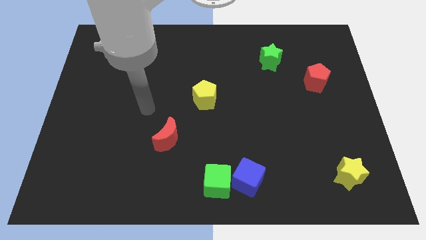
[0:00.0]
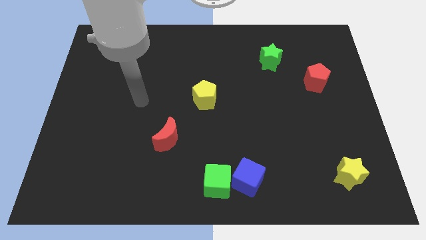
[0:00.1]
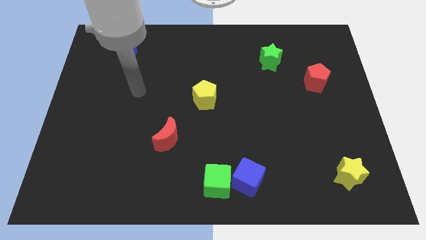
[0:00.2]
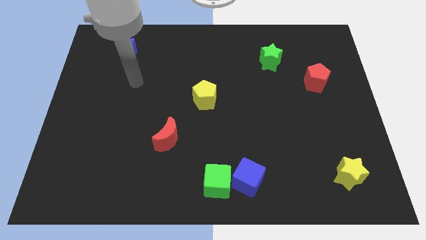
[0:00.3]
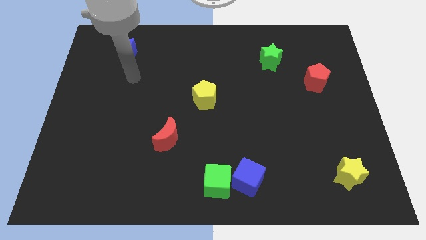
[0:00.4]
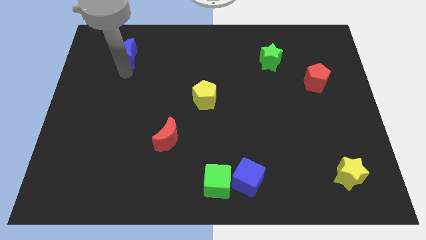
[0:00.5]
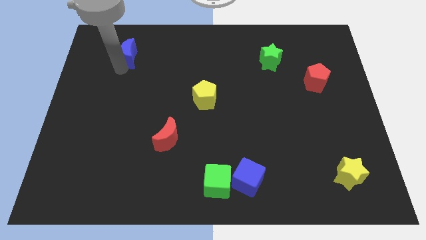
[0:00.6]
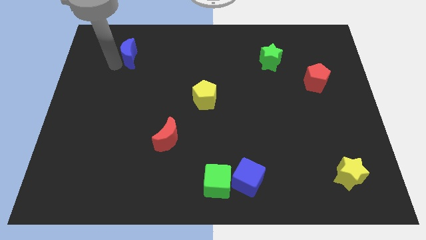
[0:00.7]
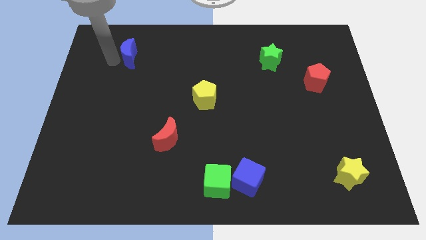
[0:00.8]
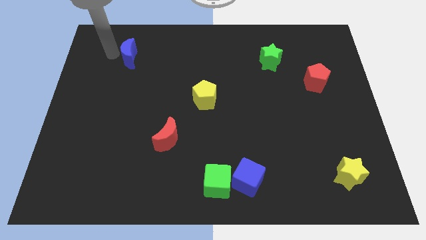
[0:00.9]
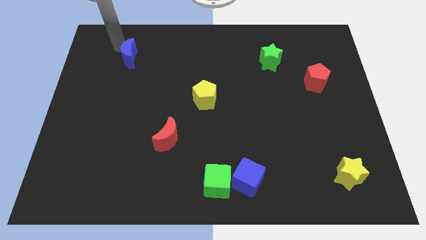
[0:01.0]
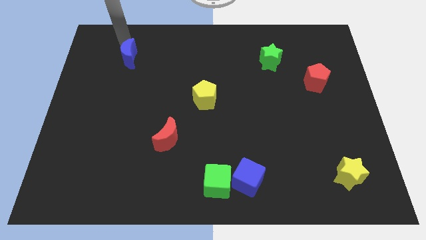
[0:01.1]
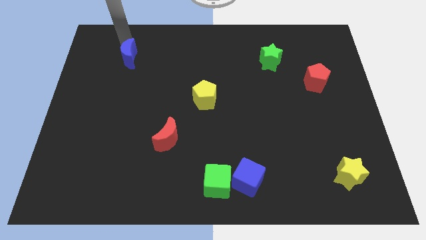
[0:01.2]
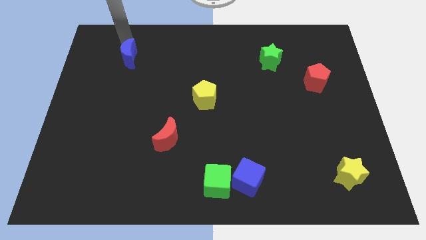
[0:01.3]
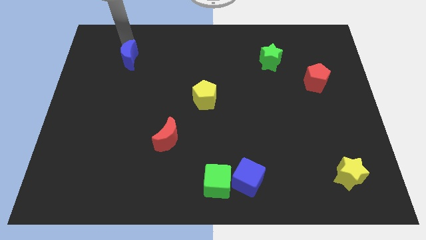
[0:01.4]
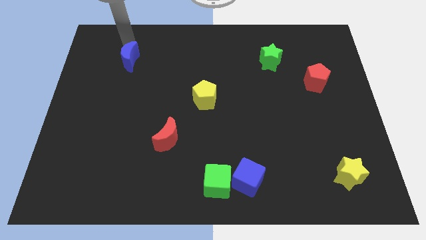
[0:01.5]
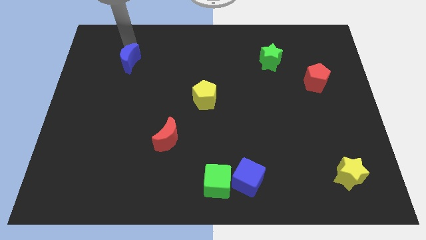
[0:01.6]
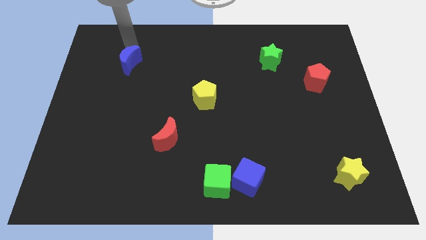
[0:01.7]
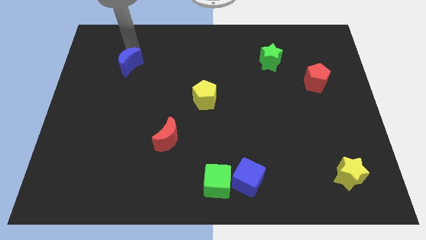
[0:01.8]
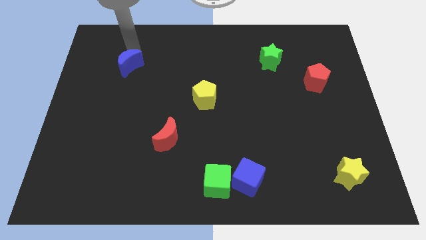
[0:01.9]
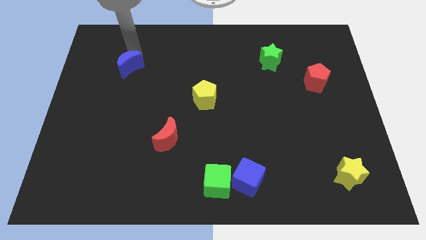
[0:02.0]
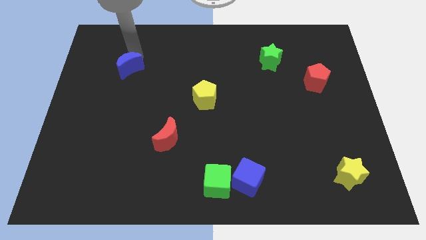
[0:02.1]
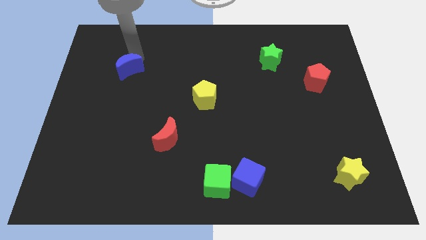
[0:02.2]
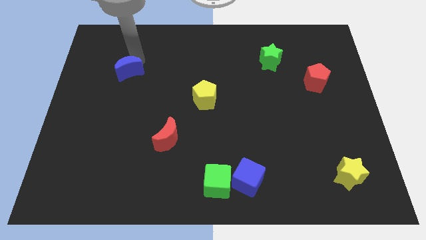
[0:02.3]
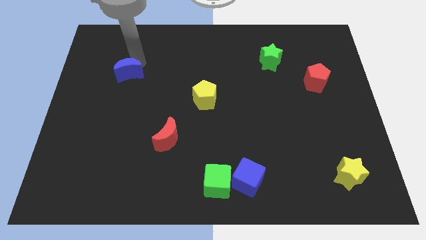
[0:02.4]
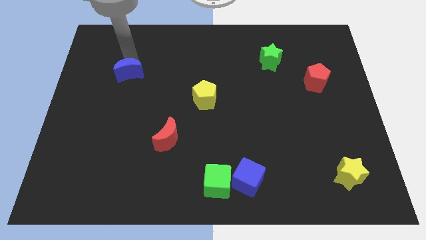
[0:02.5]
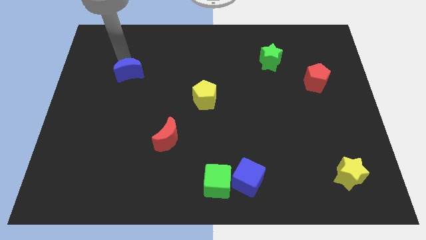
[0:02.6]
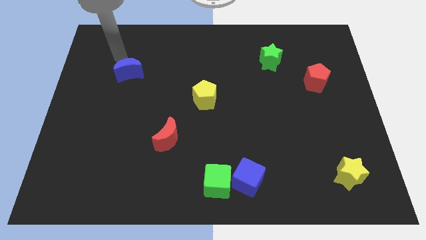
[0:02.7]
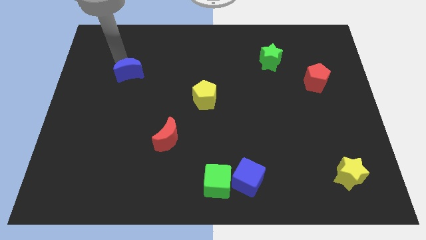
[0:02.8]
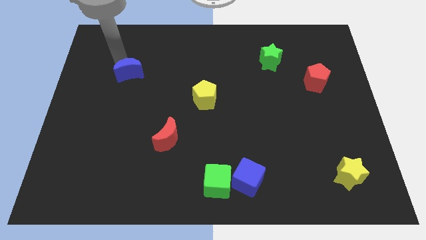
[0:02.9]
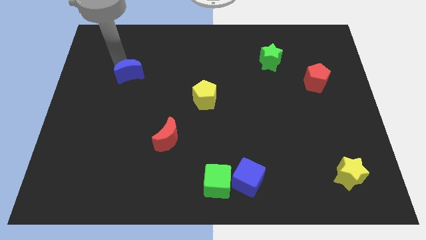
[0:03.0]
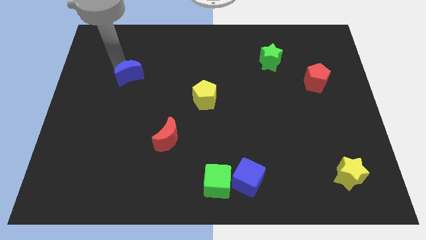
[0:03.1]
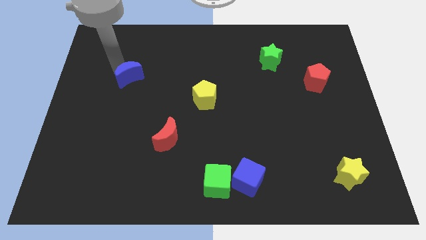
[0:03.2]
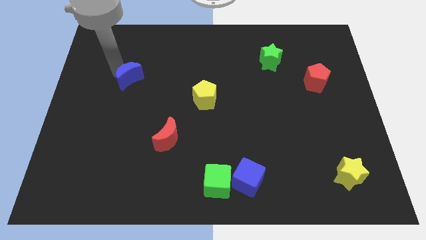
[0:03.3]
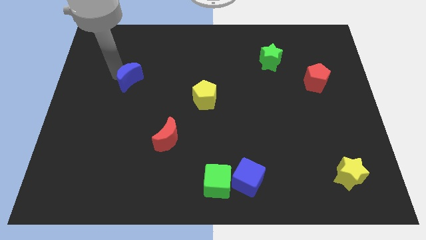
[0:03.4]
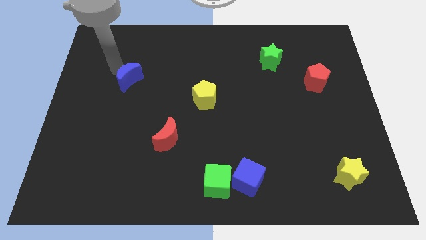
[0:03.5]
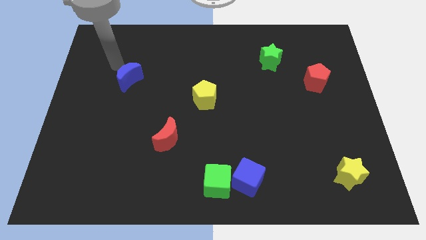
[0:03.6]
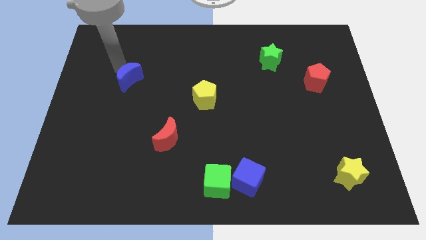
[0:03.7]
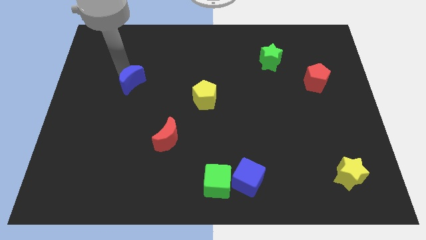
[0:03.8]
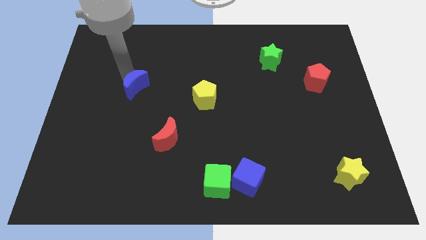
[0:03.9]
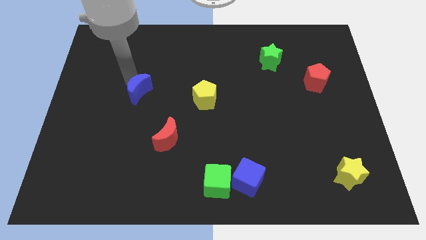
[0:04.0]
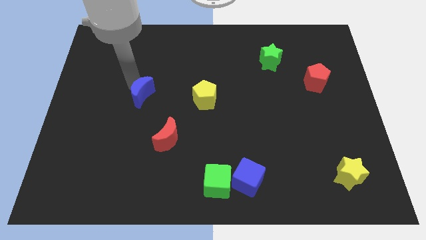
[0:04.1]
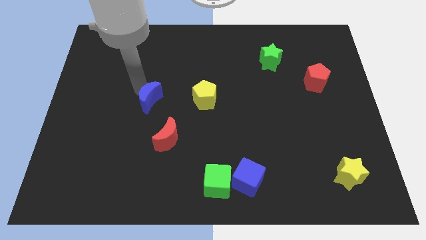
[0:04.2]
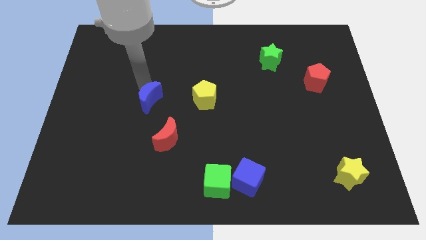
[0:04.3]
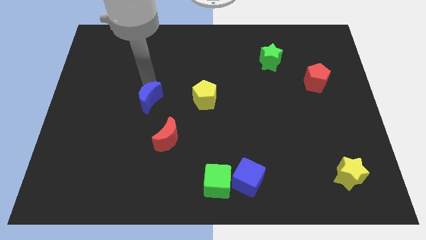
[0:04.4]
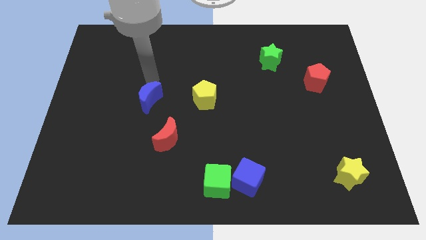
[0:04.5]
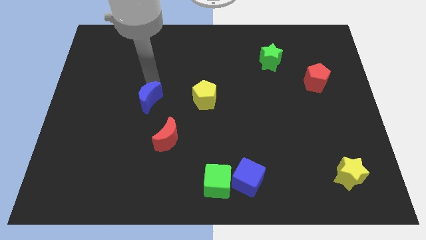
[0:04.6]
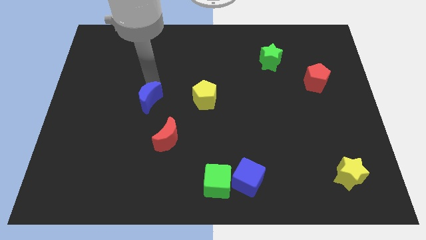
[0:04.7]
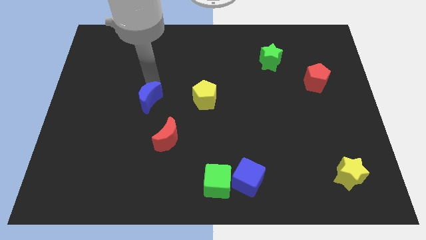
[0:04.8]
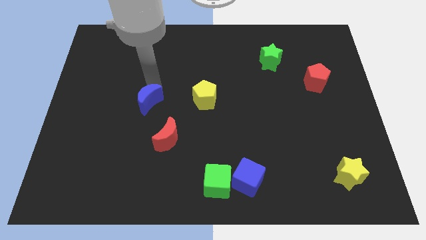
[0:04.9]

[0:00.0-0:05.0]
slide the blue moon to the top left side of the red moon

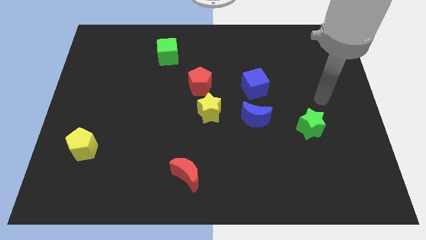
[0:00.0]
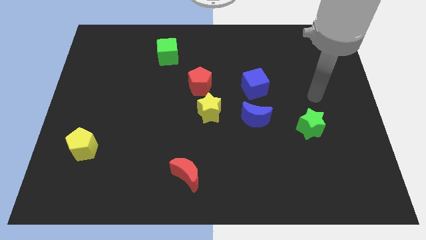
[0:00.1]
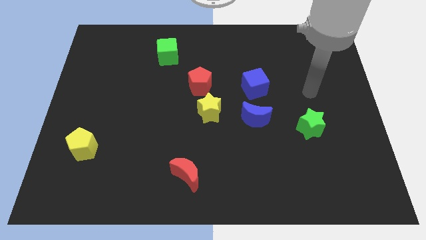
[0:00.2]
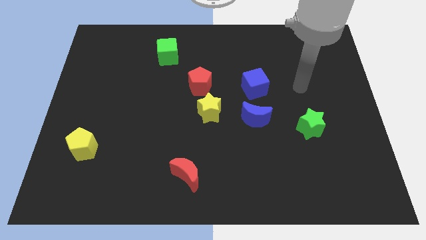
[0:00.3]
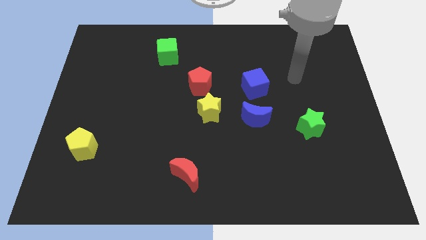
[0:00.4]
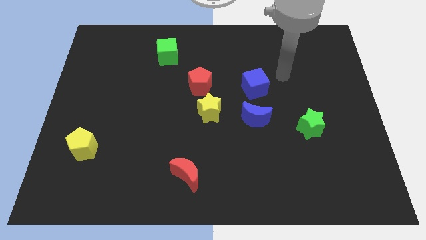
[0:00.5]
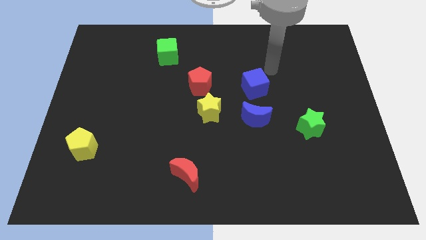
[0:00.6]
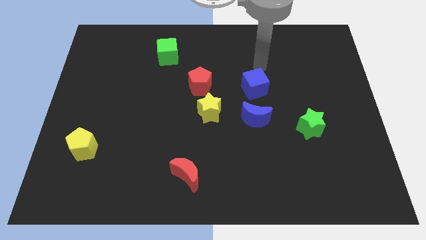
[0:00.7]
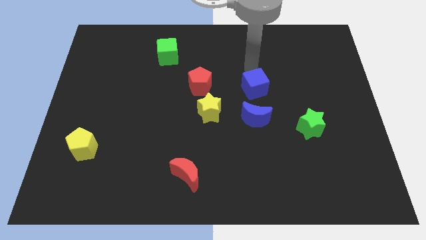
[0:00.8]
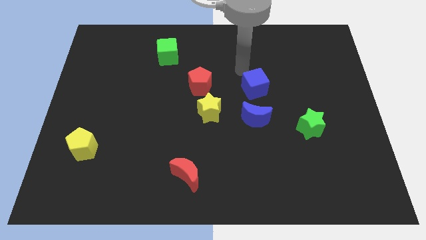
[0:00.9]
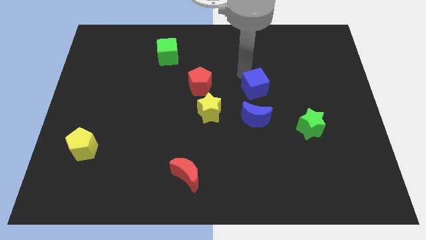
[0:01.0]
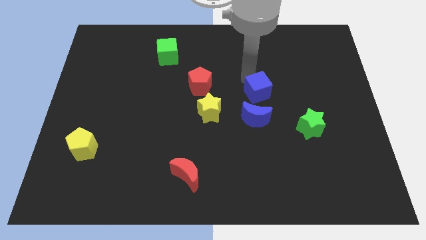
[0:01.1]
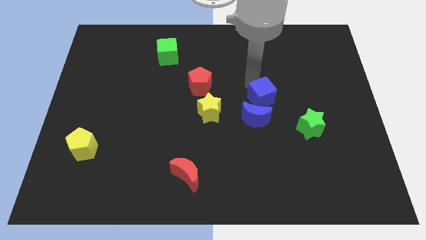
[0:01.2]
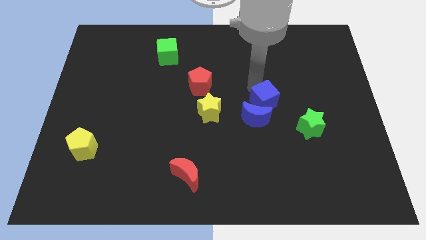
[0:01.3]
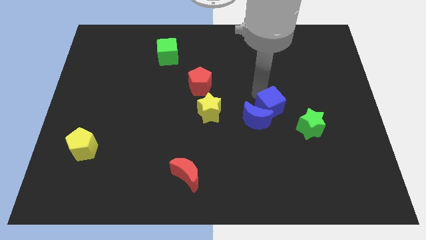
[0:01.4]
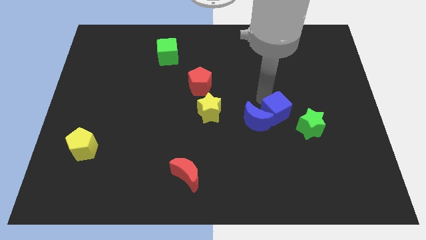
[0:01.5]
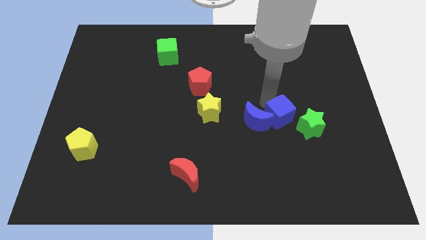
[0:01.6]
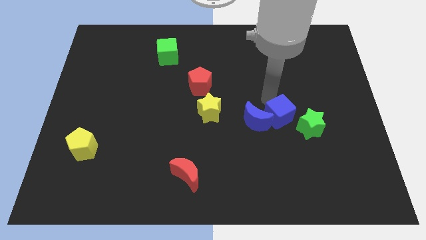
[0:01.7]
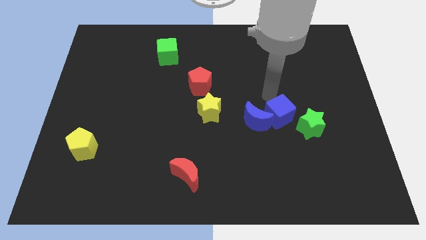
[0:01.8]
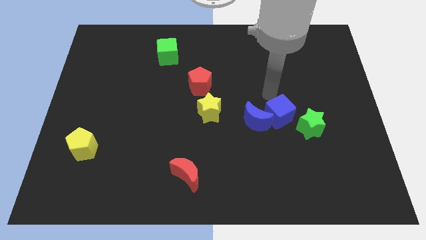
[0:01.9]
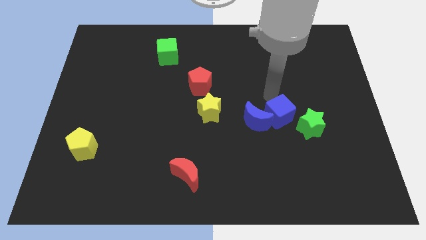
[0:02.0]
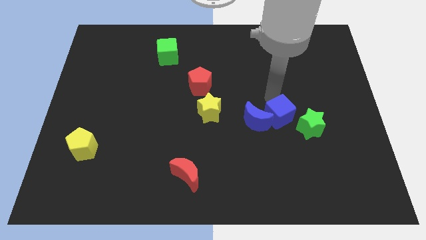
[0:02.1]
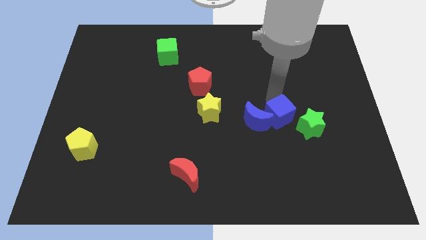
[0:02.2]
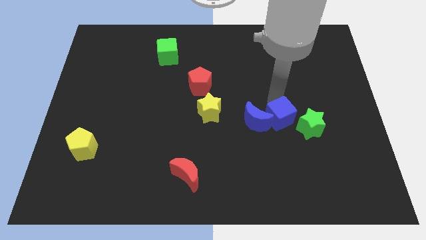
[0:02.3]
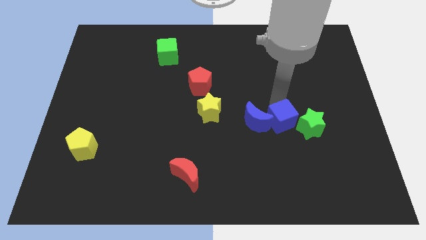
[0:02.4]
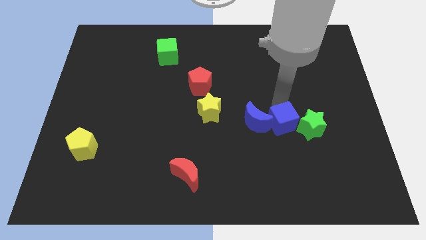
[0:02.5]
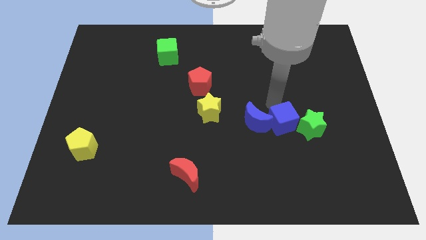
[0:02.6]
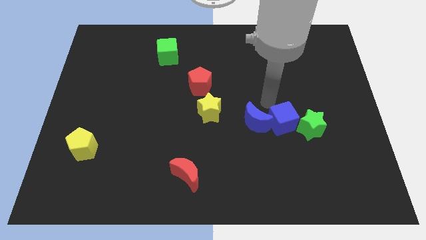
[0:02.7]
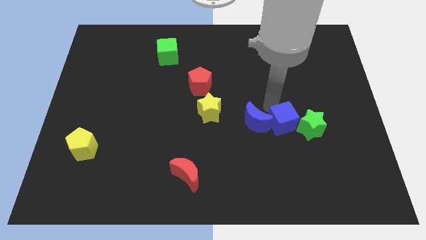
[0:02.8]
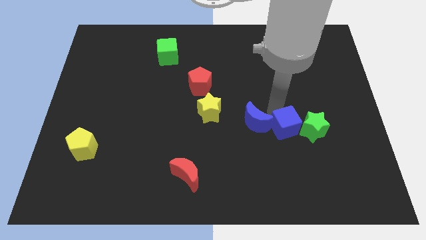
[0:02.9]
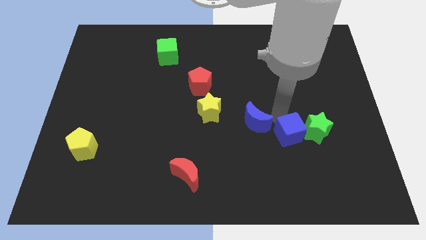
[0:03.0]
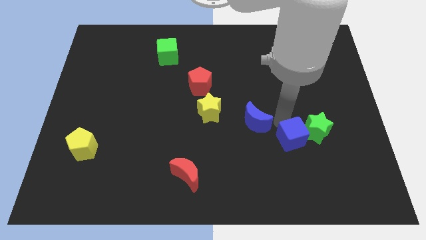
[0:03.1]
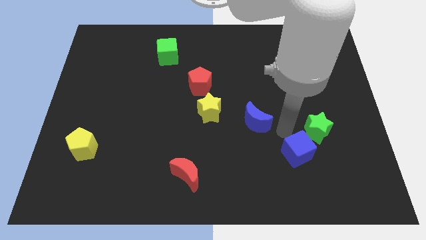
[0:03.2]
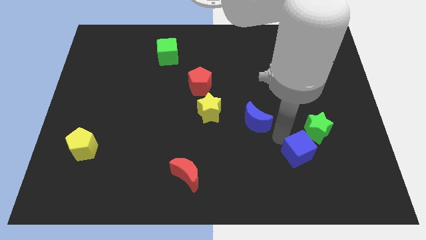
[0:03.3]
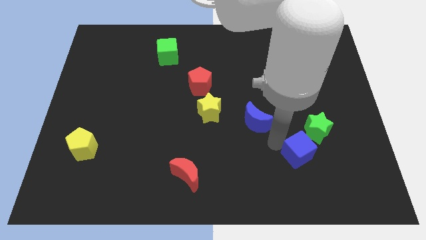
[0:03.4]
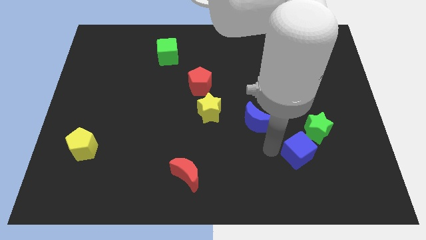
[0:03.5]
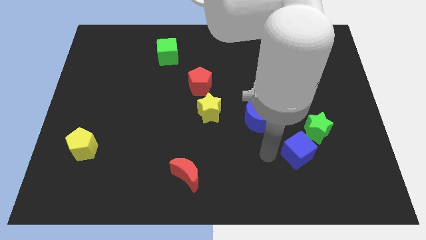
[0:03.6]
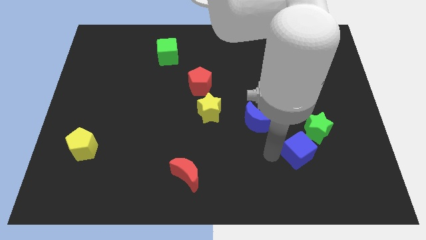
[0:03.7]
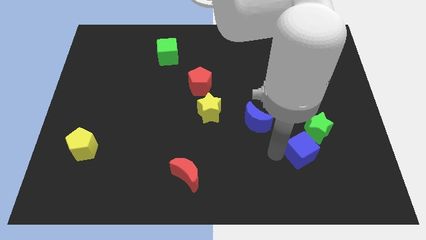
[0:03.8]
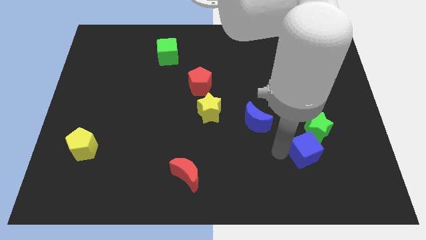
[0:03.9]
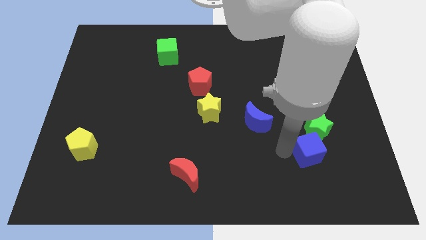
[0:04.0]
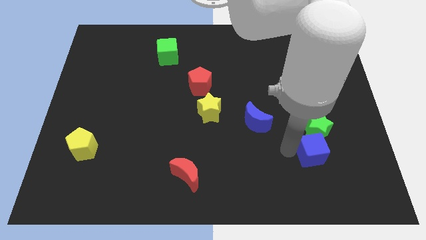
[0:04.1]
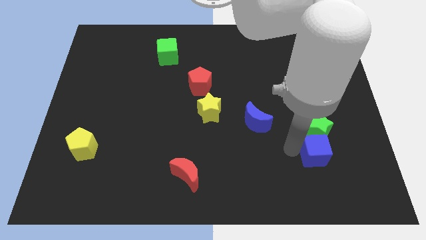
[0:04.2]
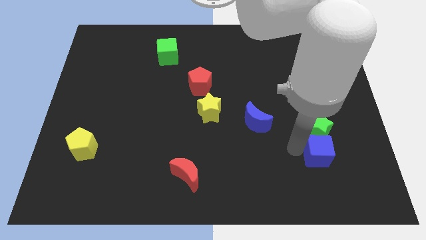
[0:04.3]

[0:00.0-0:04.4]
push the blue cube to the bottom right of the green star
